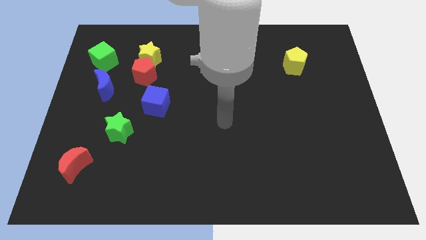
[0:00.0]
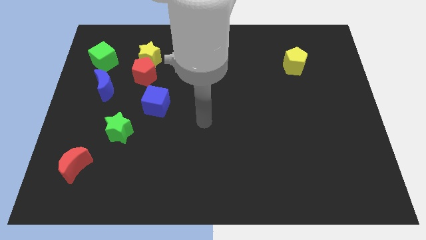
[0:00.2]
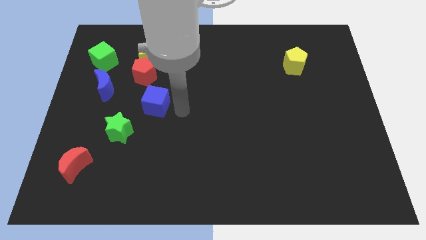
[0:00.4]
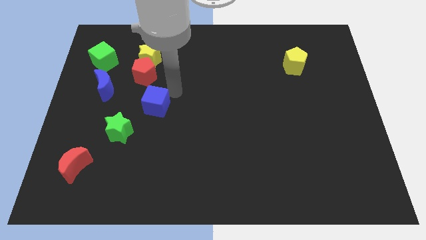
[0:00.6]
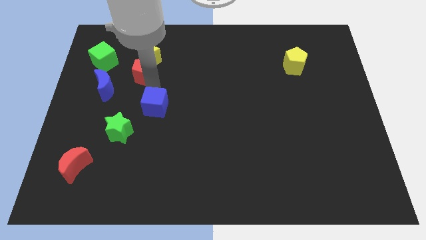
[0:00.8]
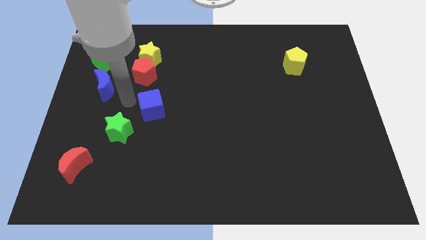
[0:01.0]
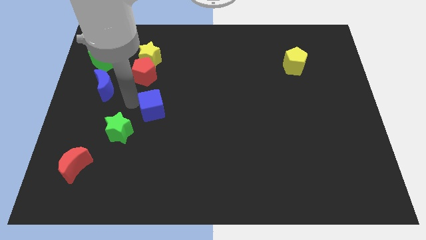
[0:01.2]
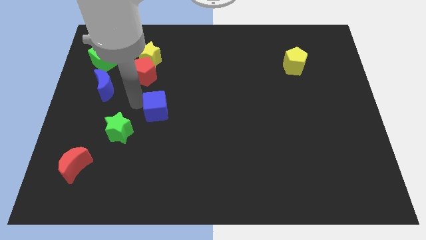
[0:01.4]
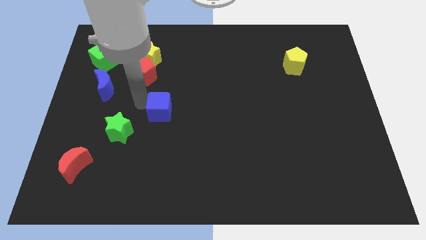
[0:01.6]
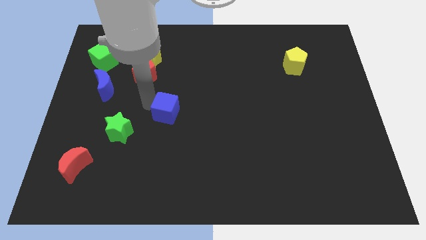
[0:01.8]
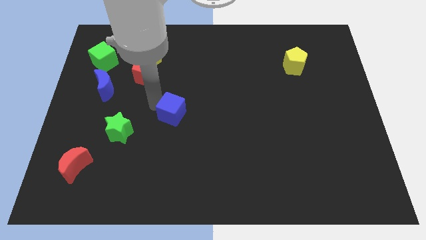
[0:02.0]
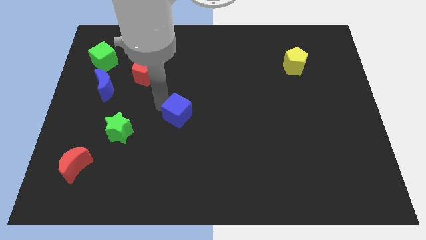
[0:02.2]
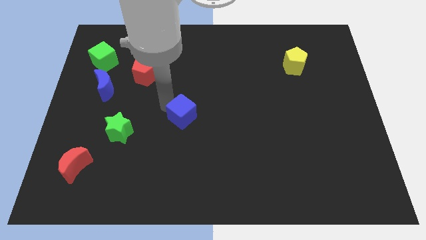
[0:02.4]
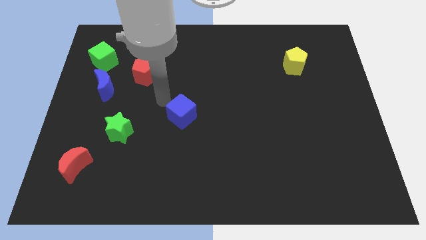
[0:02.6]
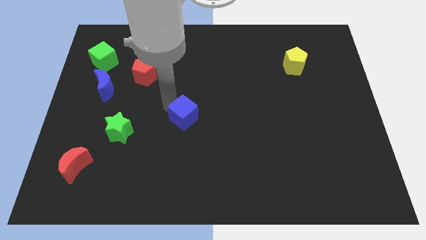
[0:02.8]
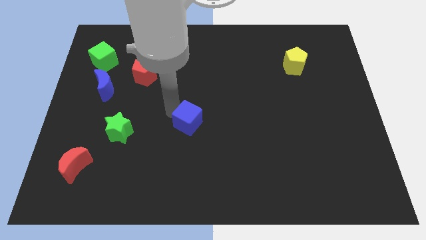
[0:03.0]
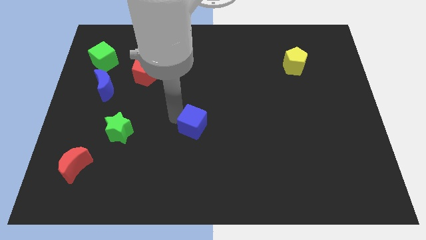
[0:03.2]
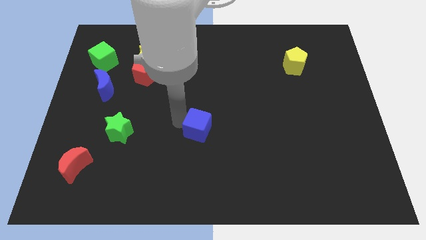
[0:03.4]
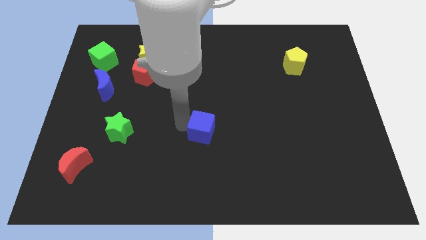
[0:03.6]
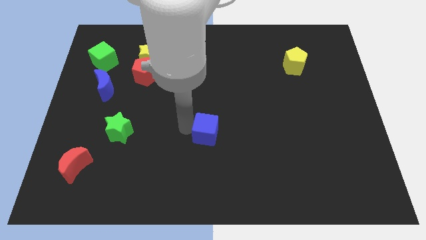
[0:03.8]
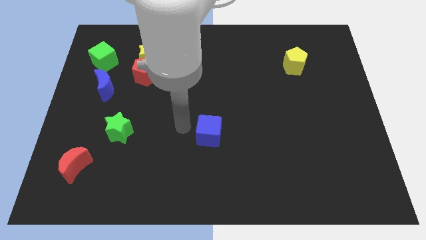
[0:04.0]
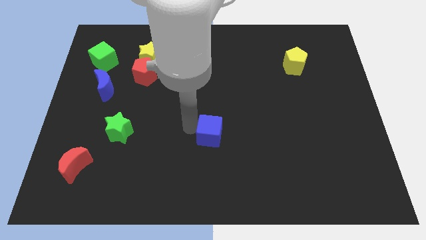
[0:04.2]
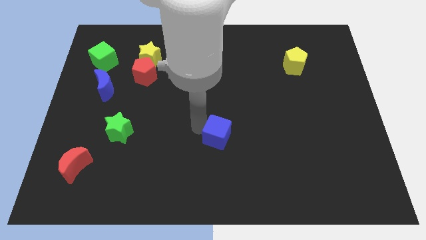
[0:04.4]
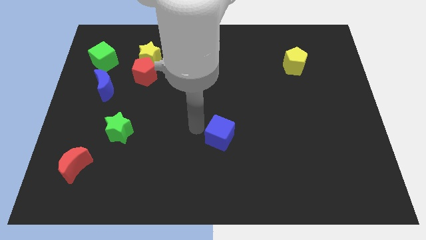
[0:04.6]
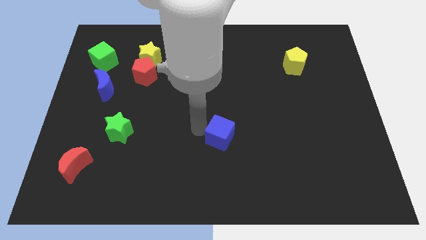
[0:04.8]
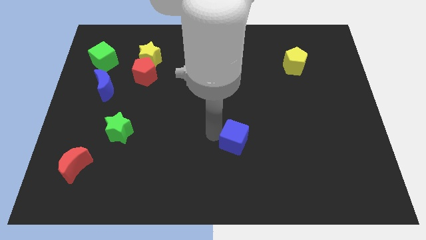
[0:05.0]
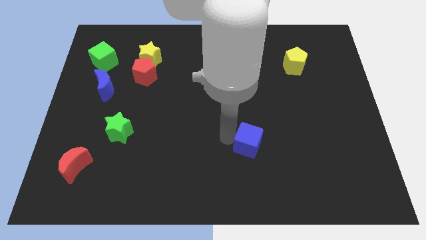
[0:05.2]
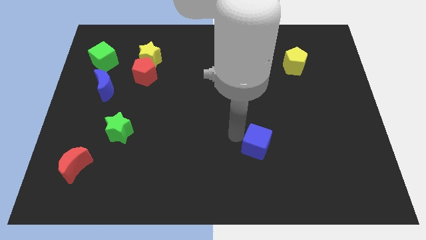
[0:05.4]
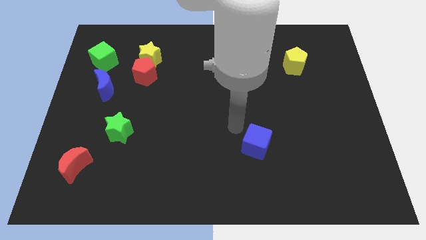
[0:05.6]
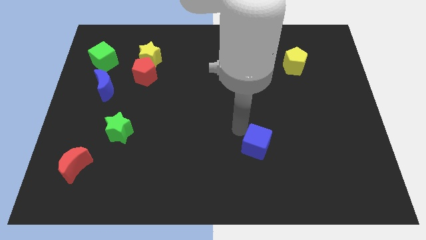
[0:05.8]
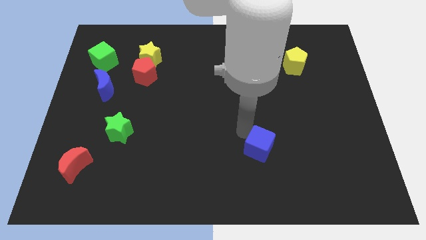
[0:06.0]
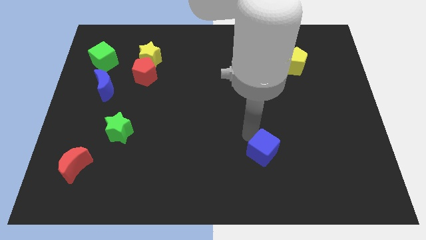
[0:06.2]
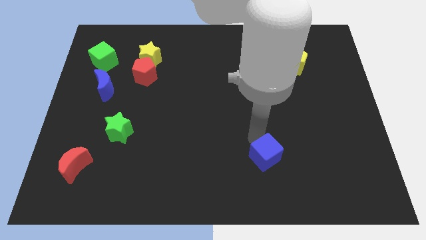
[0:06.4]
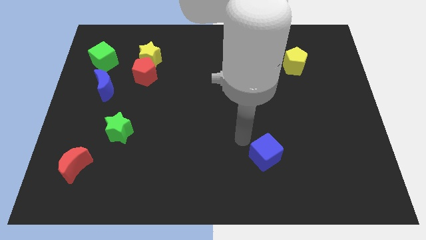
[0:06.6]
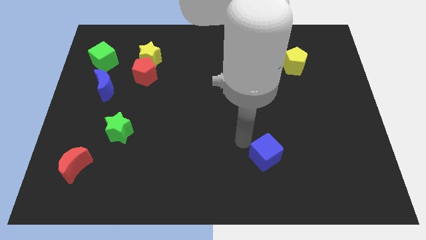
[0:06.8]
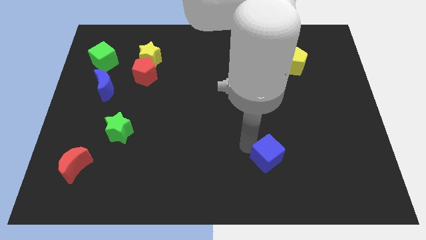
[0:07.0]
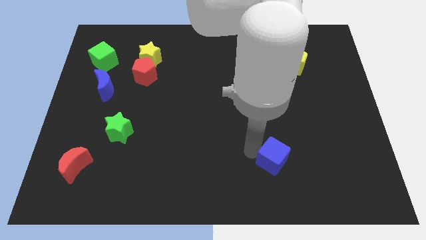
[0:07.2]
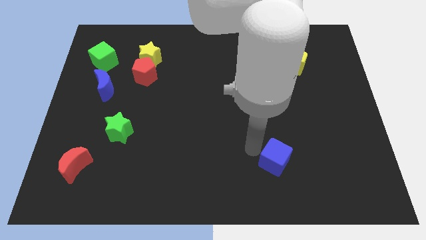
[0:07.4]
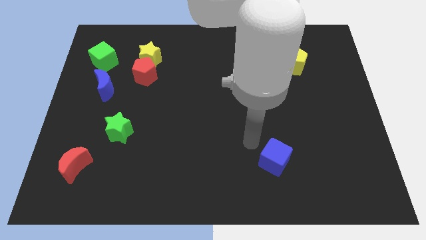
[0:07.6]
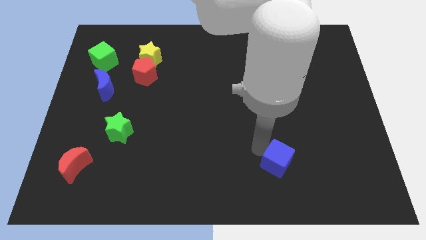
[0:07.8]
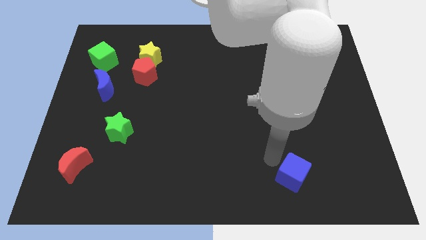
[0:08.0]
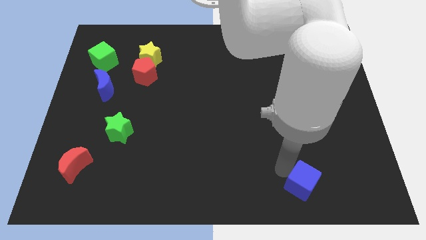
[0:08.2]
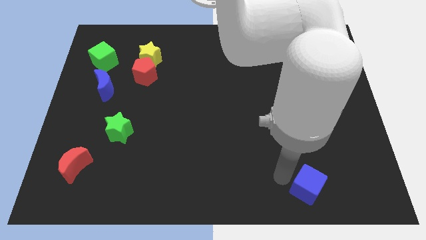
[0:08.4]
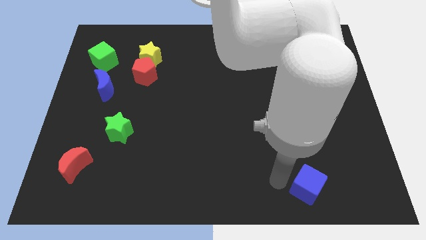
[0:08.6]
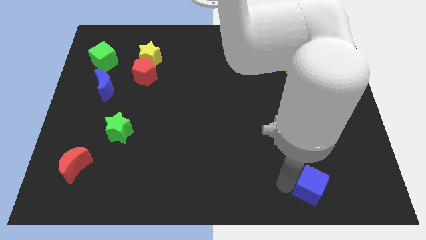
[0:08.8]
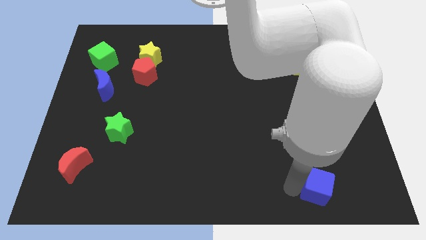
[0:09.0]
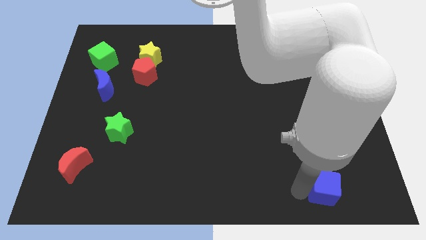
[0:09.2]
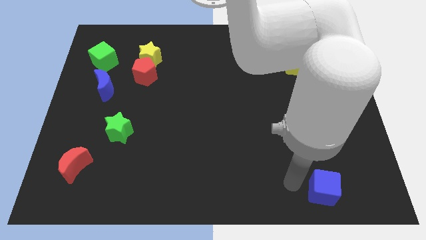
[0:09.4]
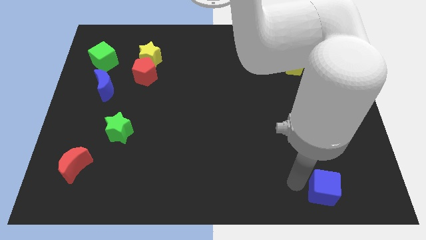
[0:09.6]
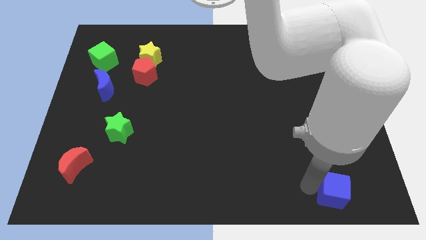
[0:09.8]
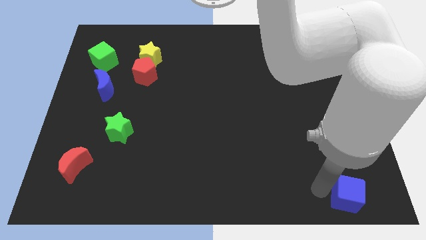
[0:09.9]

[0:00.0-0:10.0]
put the blue cube to the lower right corner

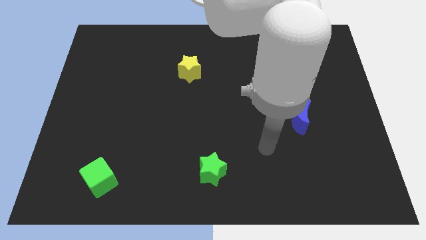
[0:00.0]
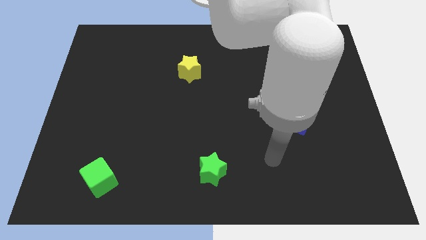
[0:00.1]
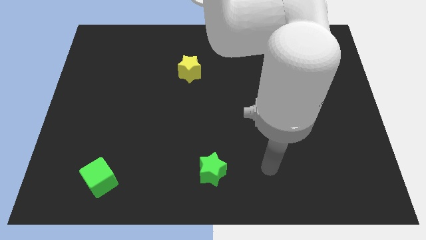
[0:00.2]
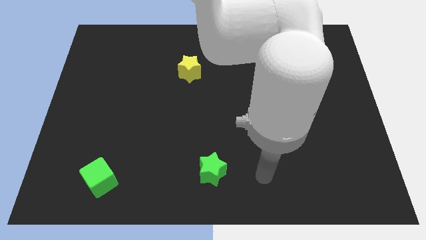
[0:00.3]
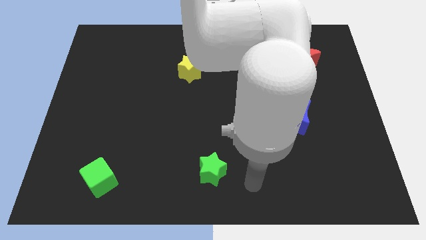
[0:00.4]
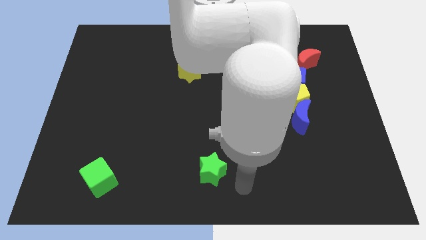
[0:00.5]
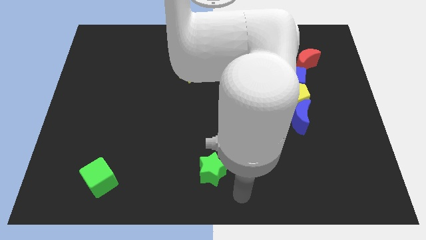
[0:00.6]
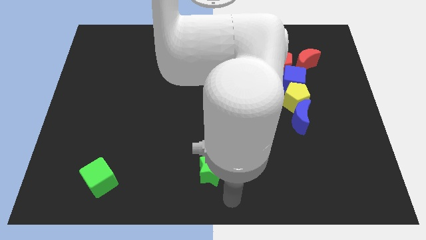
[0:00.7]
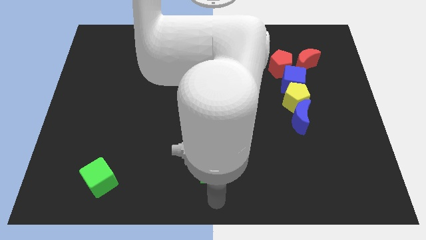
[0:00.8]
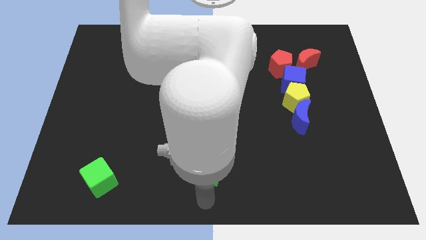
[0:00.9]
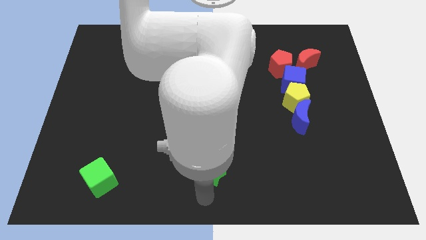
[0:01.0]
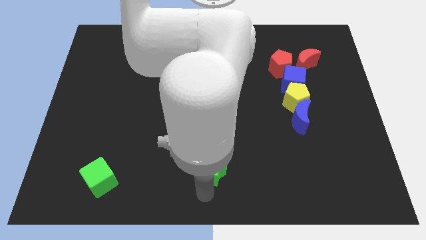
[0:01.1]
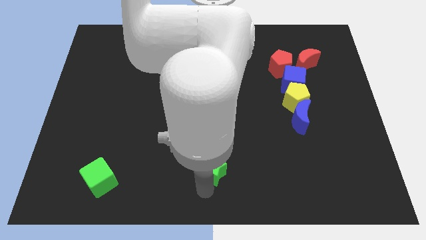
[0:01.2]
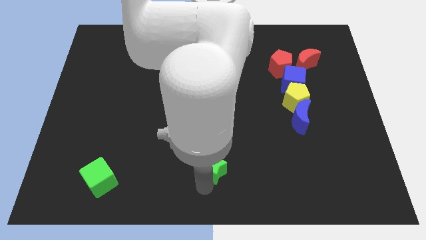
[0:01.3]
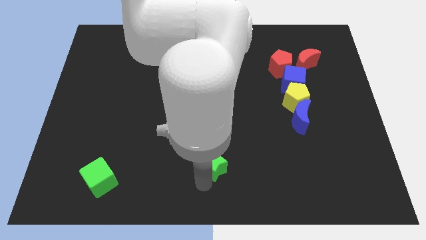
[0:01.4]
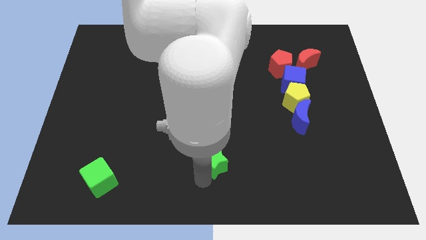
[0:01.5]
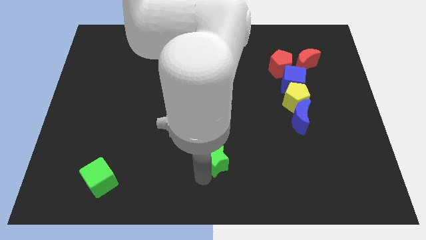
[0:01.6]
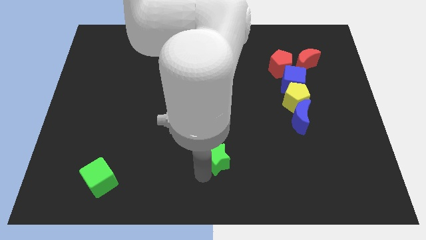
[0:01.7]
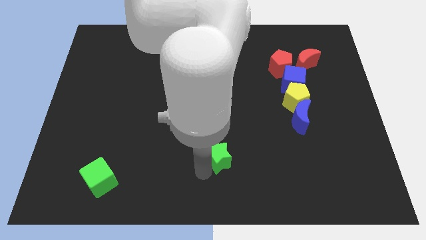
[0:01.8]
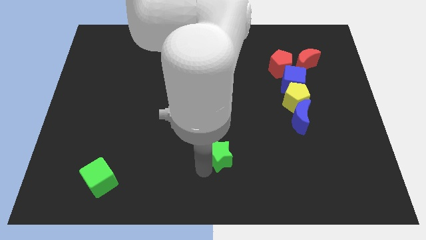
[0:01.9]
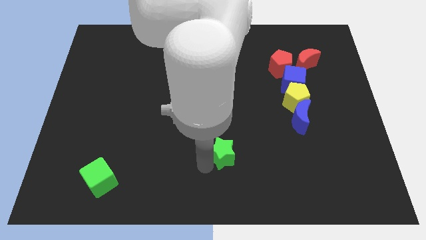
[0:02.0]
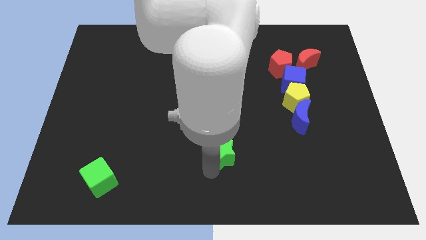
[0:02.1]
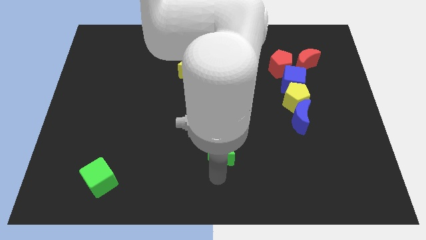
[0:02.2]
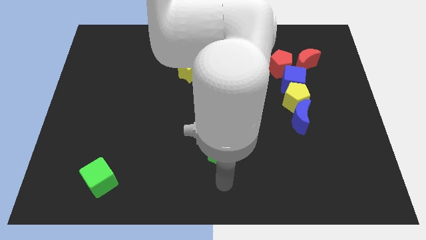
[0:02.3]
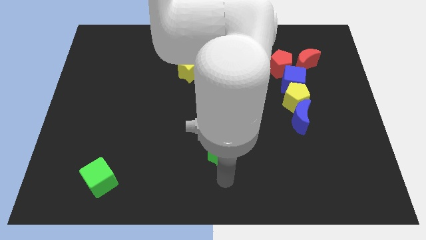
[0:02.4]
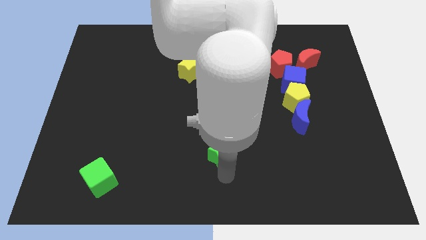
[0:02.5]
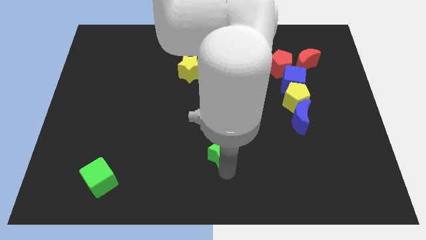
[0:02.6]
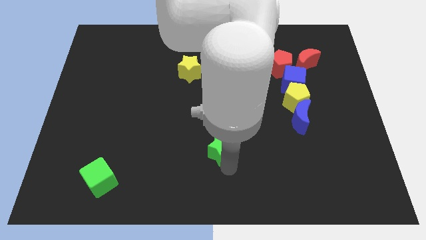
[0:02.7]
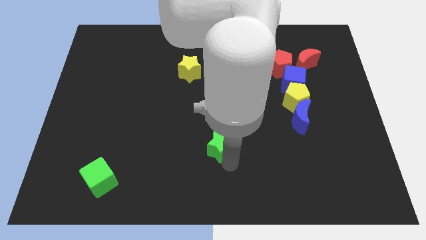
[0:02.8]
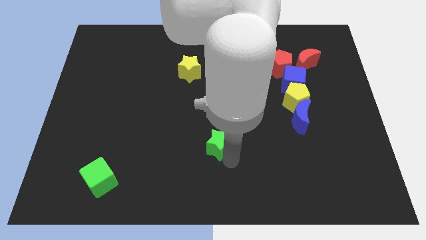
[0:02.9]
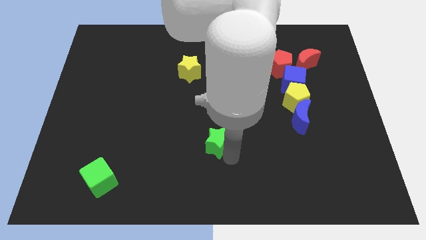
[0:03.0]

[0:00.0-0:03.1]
move the green star to the middle of the board
